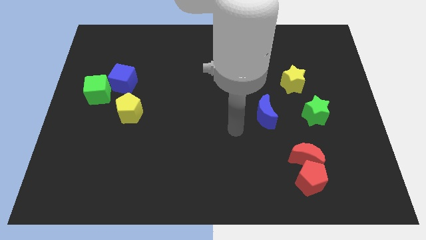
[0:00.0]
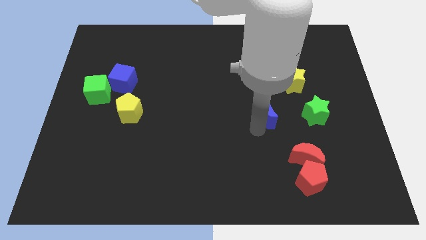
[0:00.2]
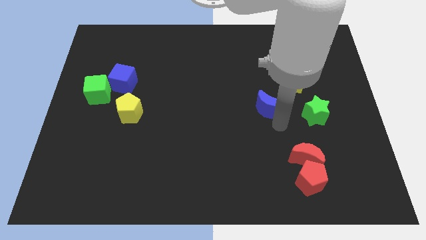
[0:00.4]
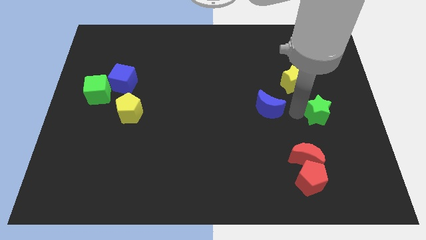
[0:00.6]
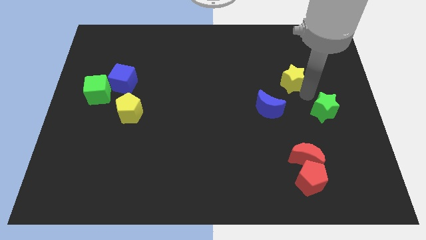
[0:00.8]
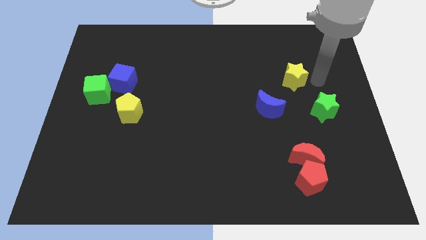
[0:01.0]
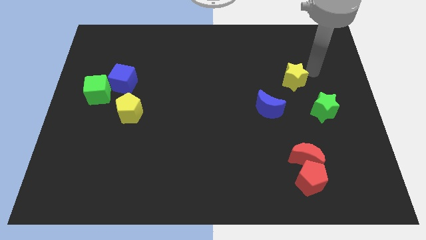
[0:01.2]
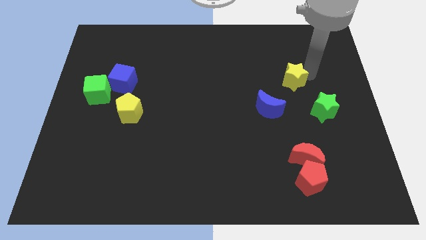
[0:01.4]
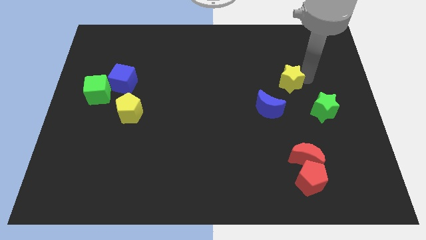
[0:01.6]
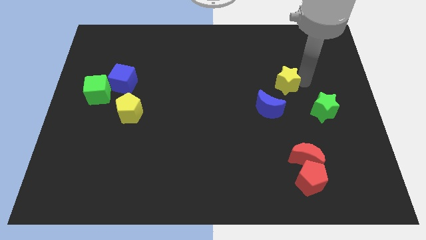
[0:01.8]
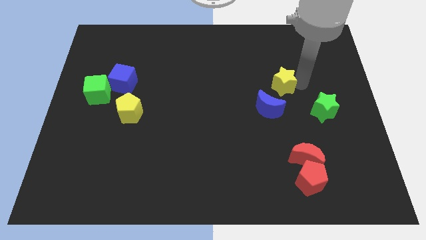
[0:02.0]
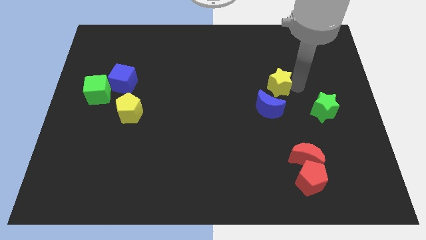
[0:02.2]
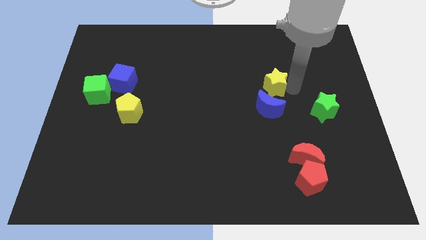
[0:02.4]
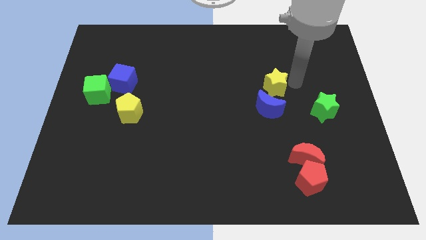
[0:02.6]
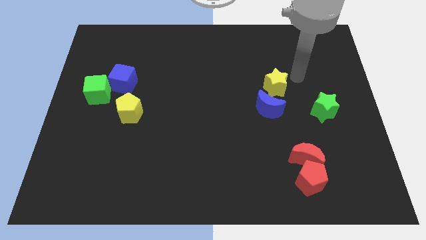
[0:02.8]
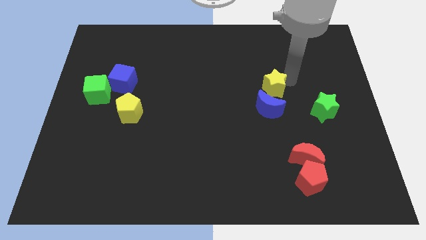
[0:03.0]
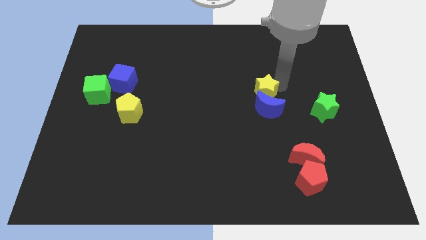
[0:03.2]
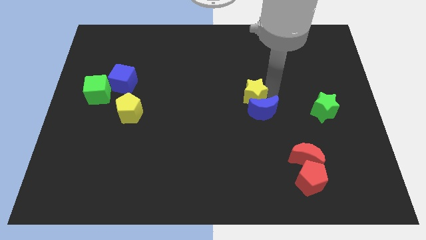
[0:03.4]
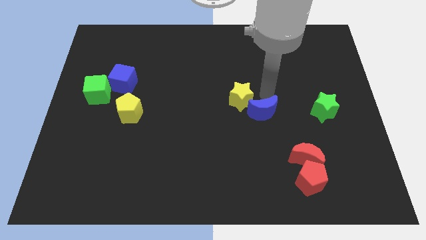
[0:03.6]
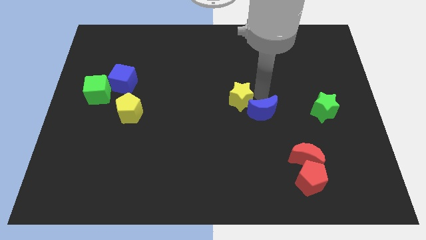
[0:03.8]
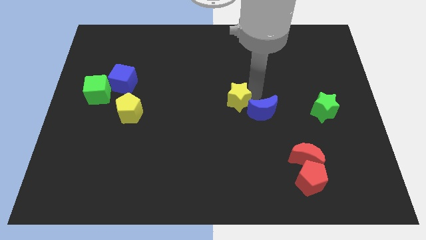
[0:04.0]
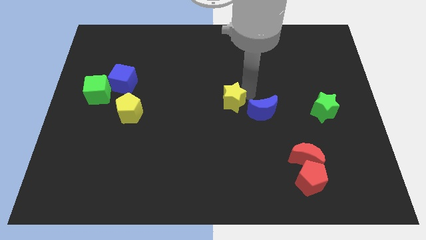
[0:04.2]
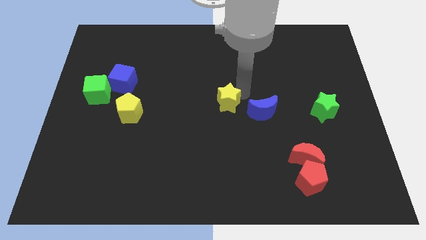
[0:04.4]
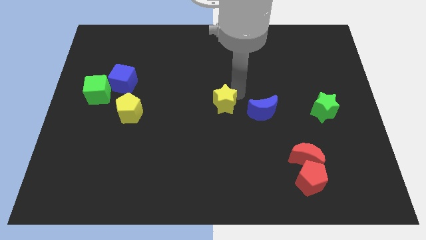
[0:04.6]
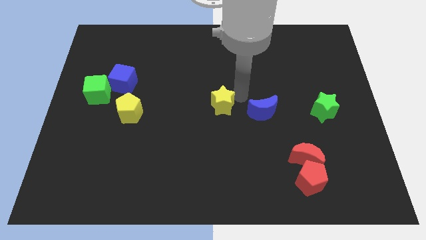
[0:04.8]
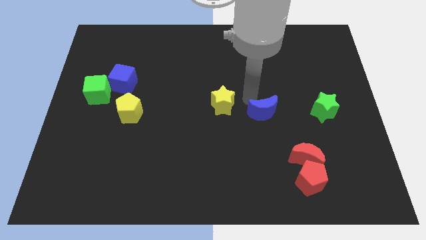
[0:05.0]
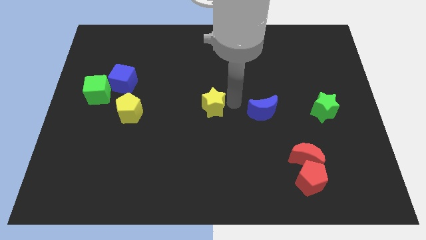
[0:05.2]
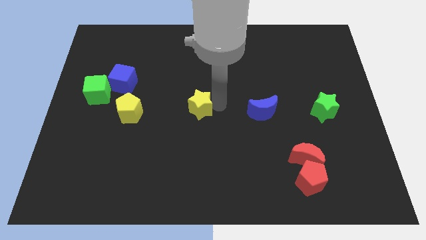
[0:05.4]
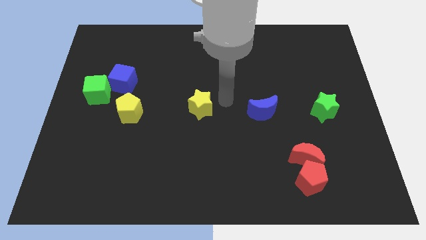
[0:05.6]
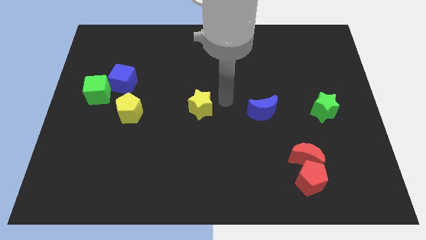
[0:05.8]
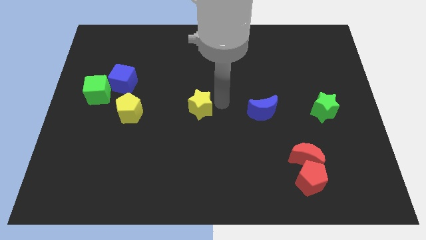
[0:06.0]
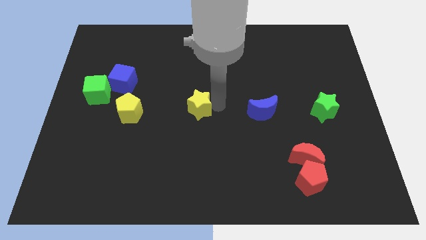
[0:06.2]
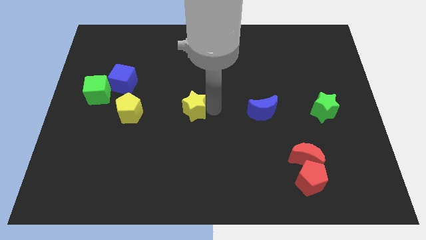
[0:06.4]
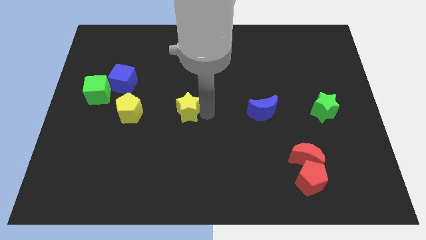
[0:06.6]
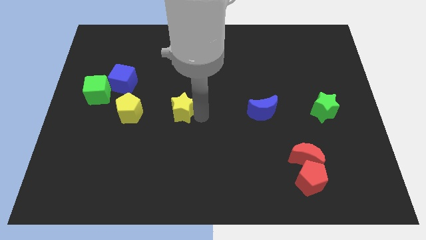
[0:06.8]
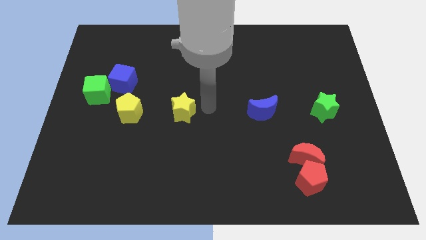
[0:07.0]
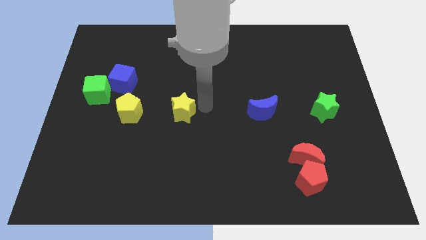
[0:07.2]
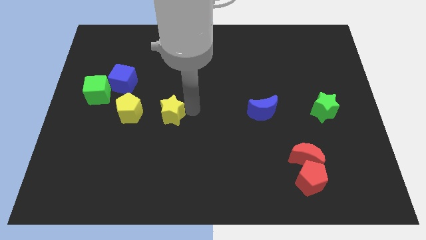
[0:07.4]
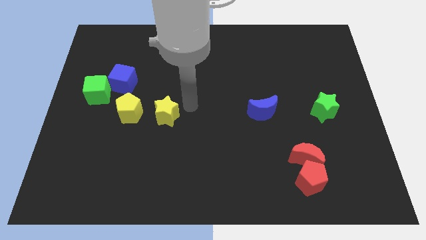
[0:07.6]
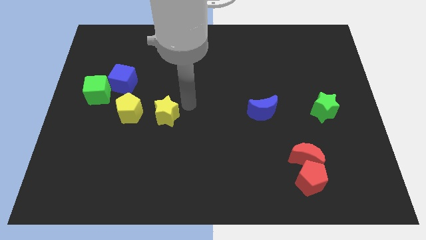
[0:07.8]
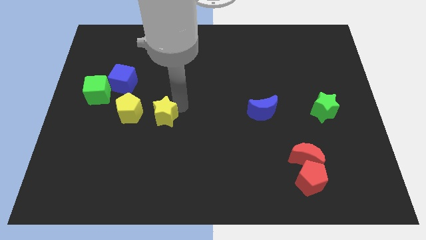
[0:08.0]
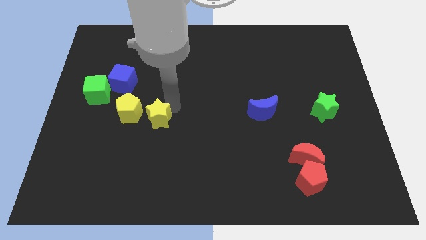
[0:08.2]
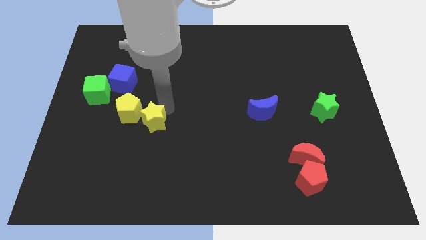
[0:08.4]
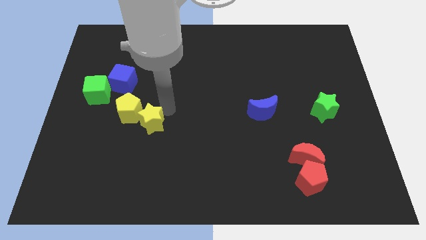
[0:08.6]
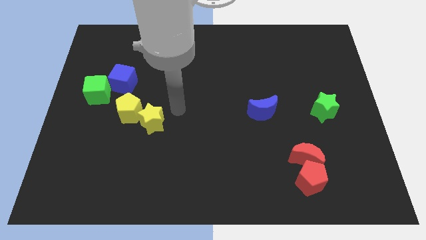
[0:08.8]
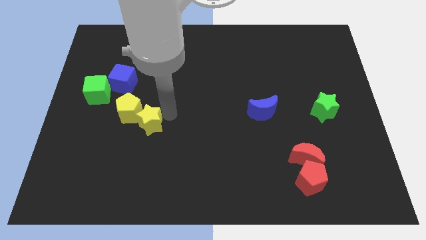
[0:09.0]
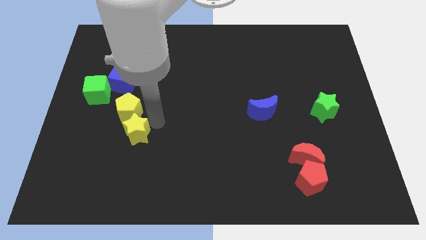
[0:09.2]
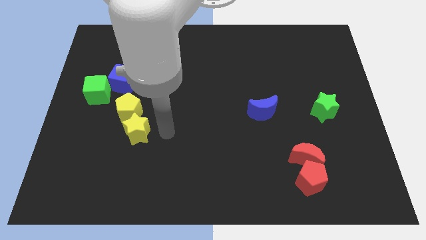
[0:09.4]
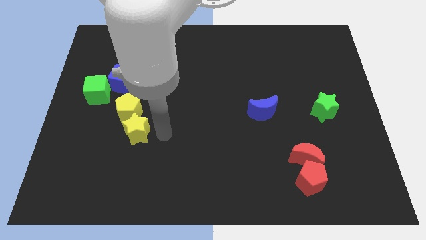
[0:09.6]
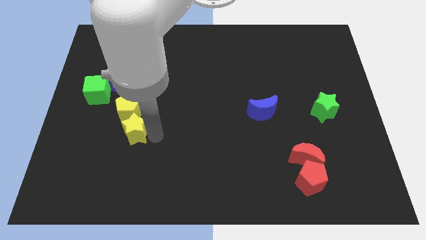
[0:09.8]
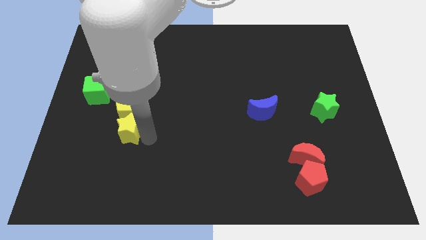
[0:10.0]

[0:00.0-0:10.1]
slide the yellow star to the bottom left side of the yellow pentagon

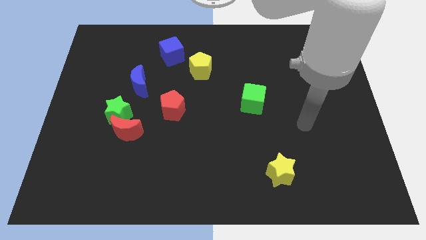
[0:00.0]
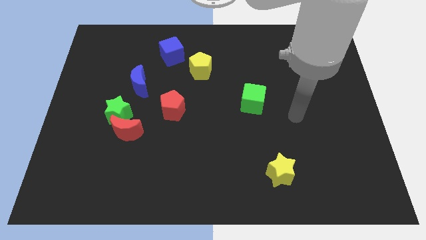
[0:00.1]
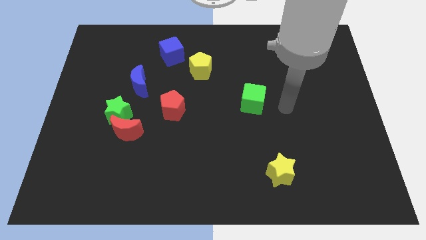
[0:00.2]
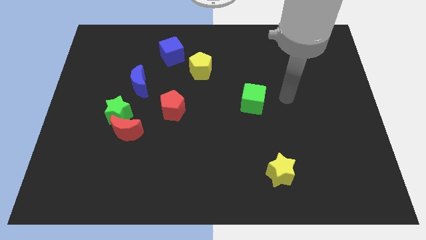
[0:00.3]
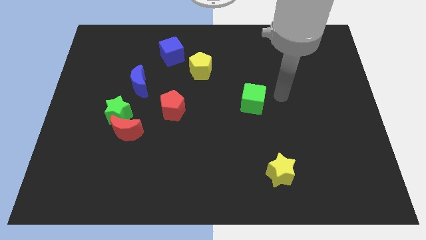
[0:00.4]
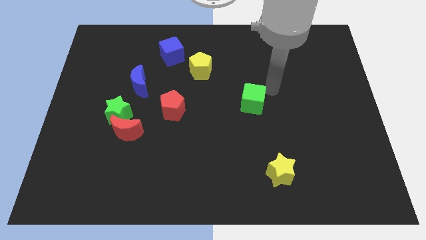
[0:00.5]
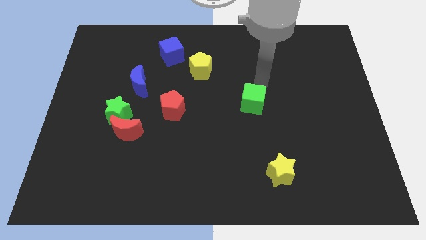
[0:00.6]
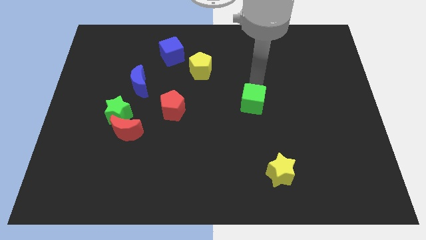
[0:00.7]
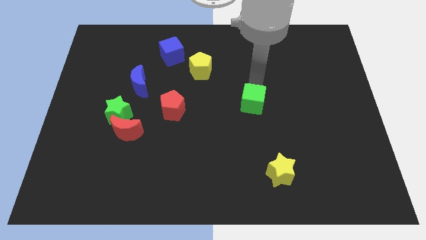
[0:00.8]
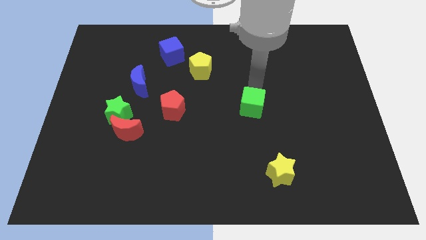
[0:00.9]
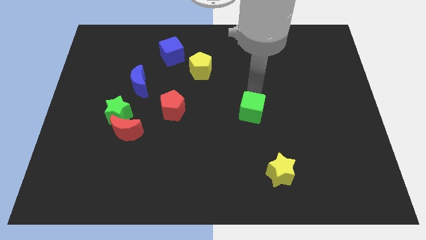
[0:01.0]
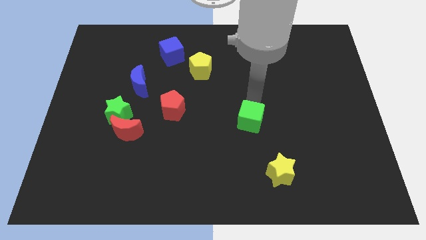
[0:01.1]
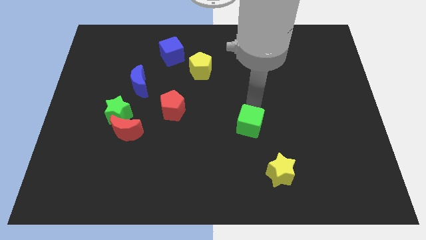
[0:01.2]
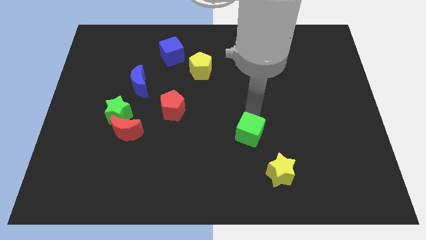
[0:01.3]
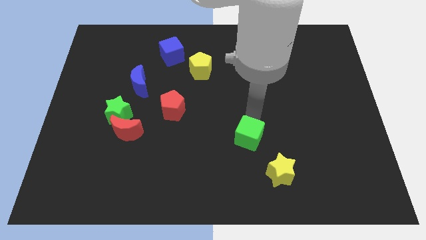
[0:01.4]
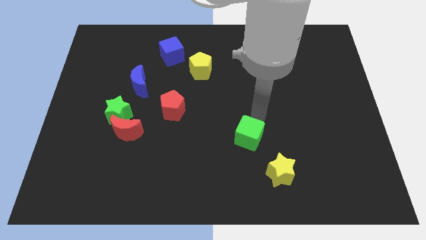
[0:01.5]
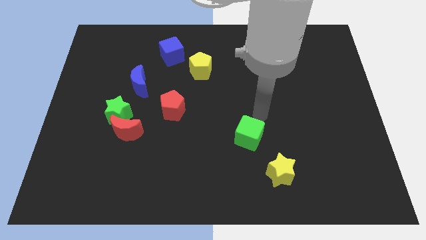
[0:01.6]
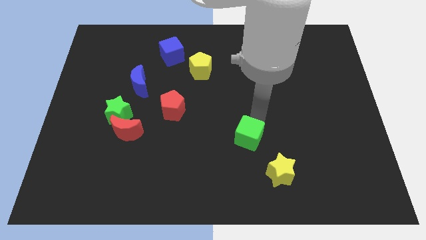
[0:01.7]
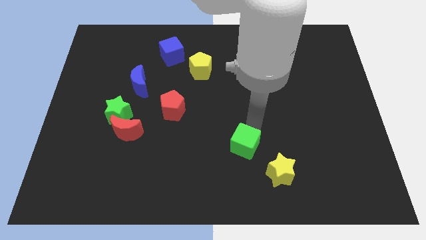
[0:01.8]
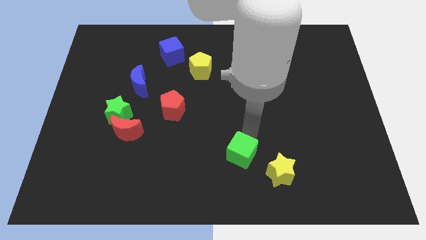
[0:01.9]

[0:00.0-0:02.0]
push the green cube to the left of the yellow star
